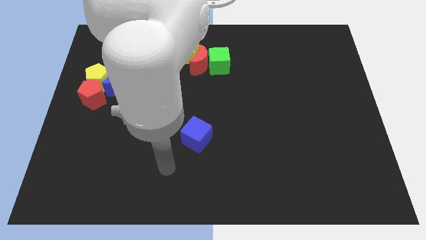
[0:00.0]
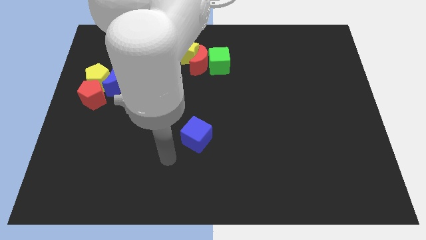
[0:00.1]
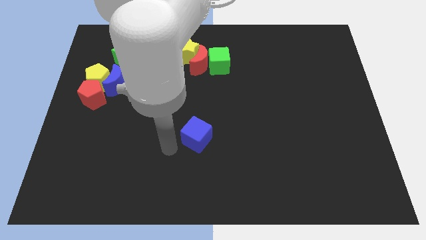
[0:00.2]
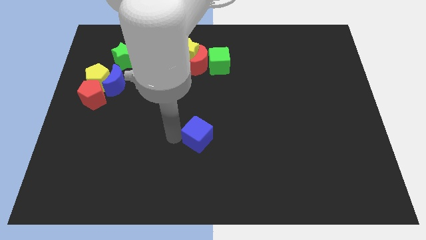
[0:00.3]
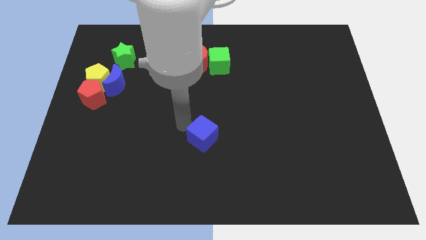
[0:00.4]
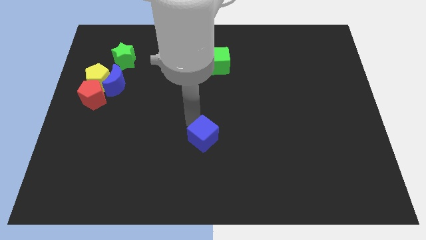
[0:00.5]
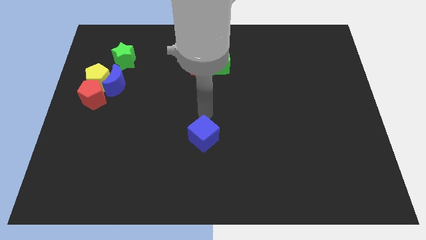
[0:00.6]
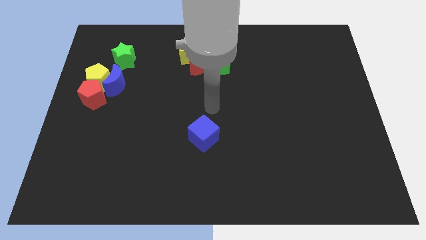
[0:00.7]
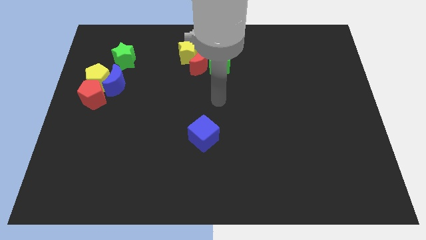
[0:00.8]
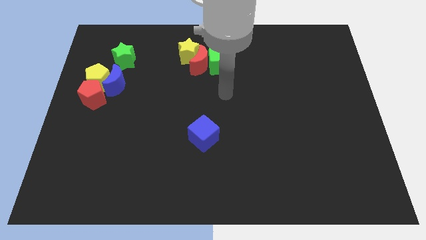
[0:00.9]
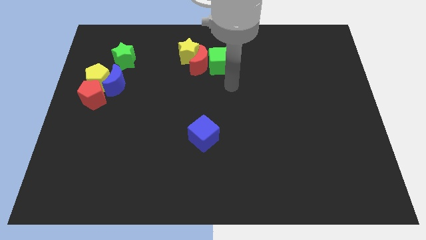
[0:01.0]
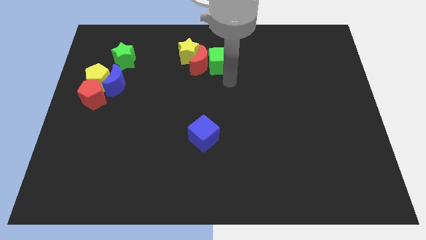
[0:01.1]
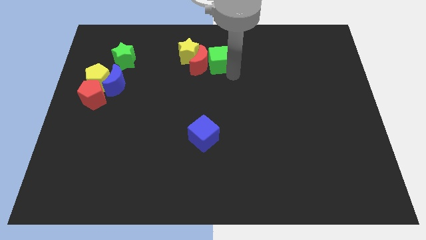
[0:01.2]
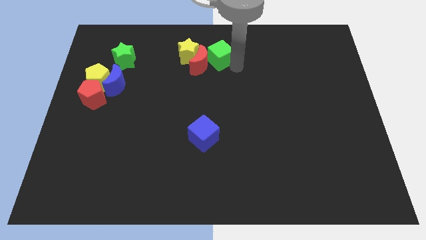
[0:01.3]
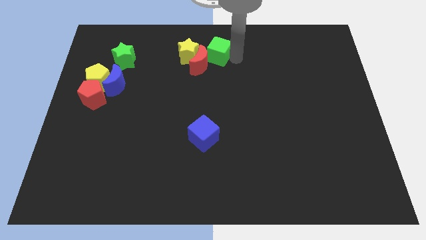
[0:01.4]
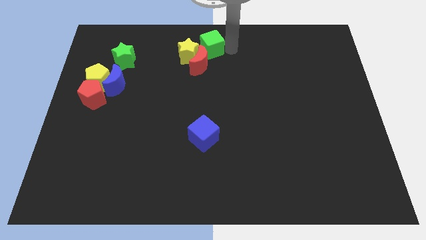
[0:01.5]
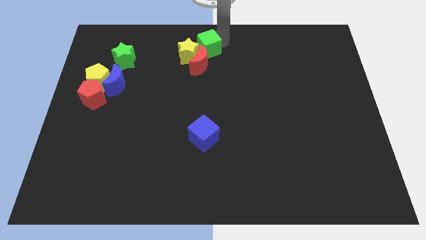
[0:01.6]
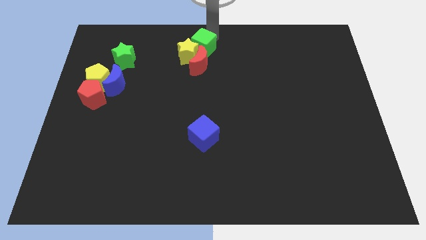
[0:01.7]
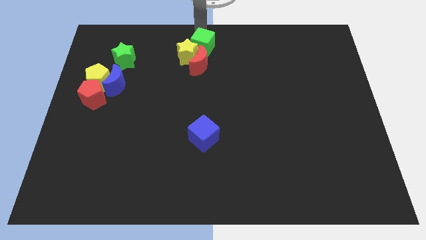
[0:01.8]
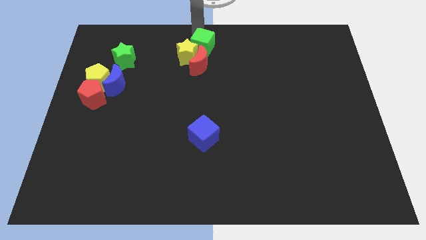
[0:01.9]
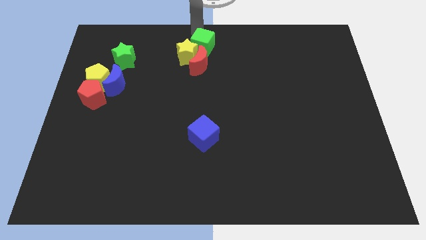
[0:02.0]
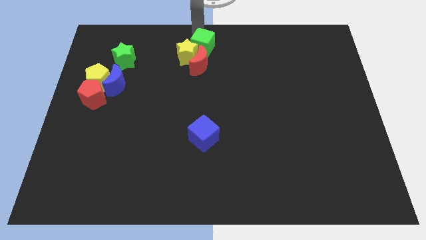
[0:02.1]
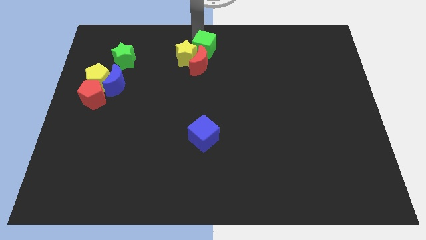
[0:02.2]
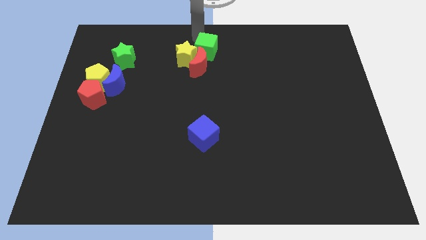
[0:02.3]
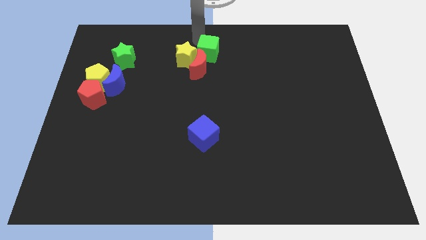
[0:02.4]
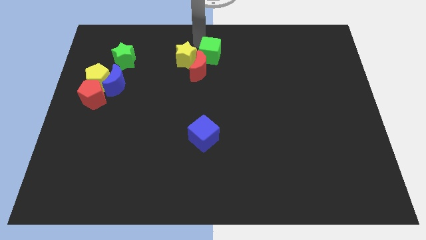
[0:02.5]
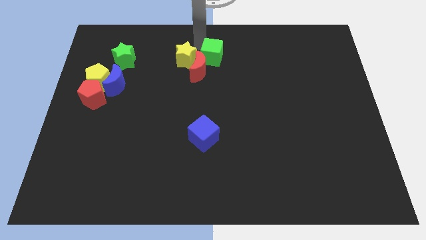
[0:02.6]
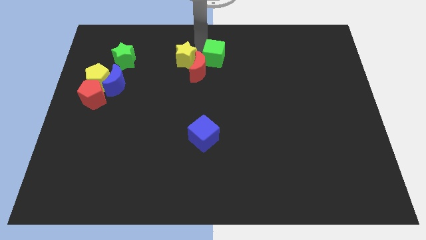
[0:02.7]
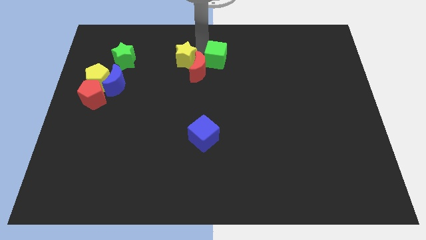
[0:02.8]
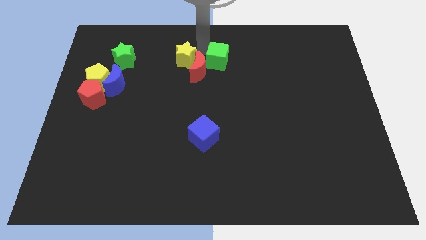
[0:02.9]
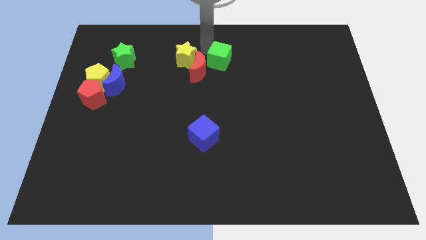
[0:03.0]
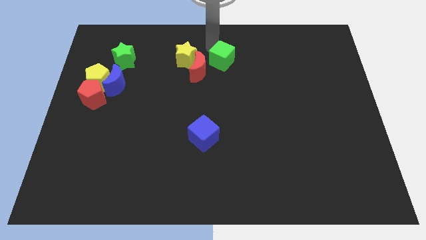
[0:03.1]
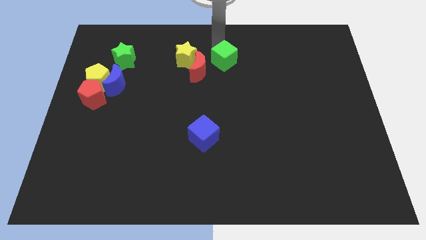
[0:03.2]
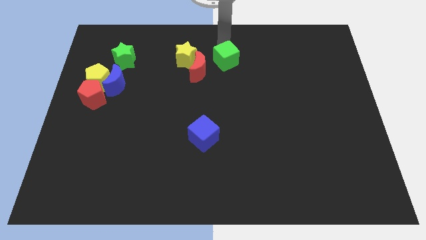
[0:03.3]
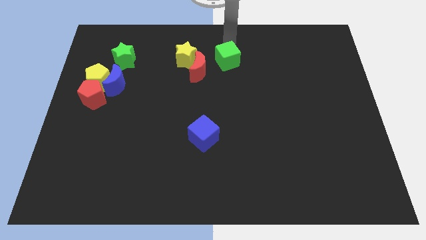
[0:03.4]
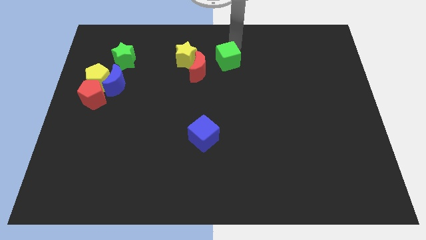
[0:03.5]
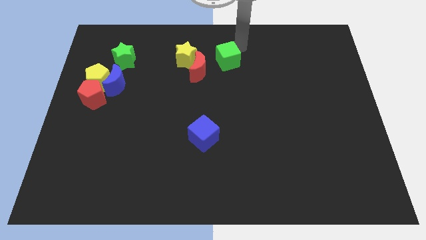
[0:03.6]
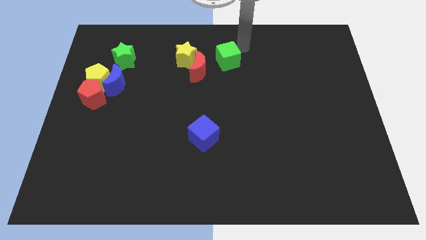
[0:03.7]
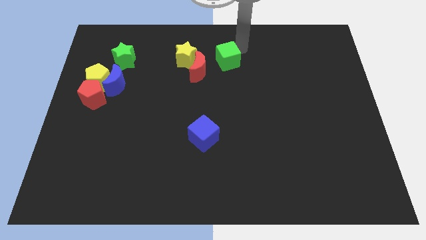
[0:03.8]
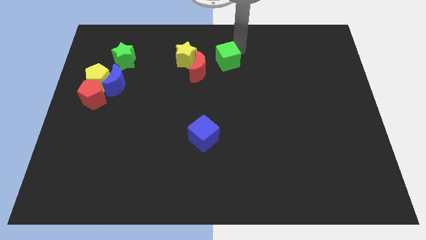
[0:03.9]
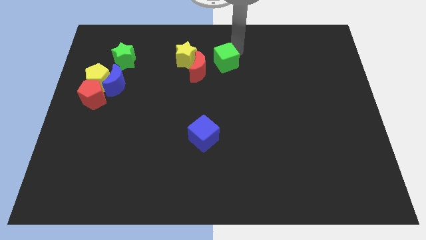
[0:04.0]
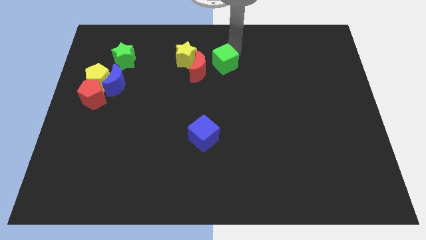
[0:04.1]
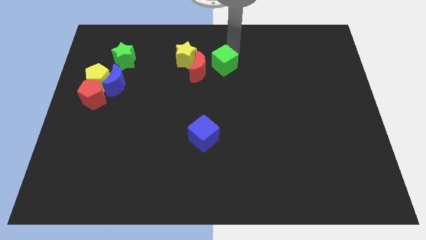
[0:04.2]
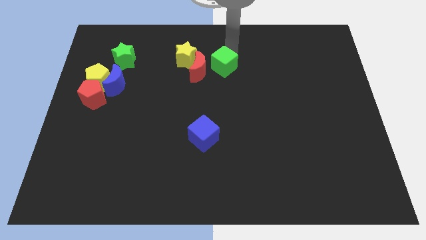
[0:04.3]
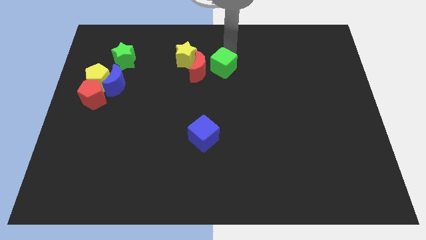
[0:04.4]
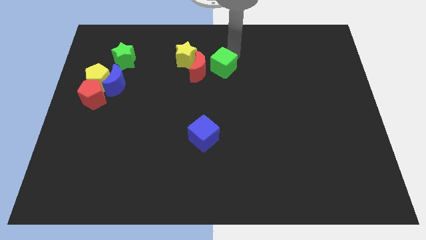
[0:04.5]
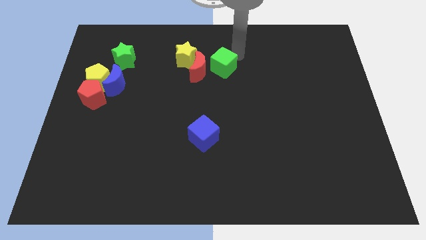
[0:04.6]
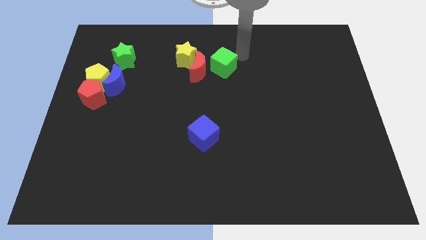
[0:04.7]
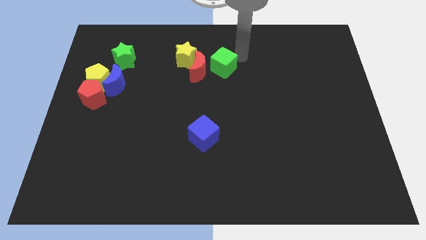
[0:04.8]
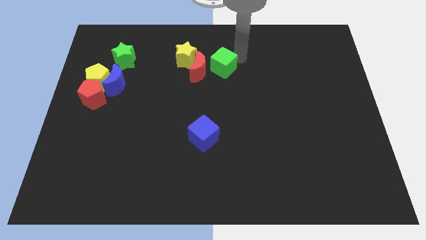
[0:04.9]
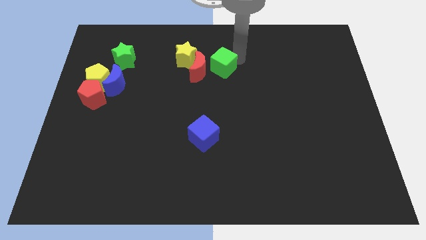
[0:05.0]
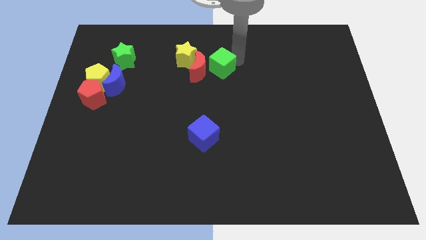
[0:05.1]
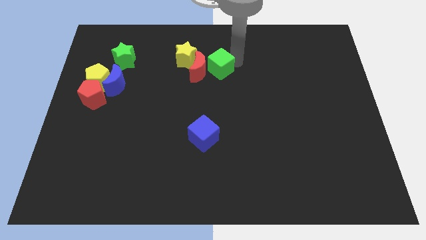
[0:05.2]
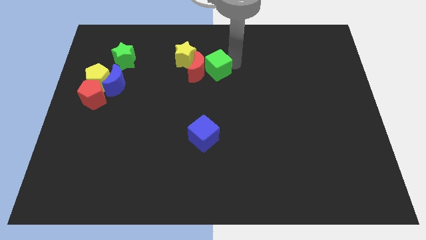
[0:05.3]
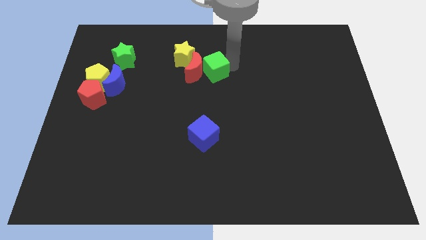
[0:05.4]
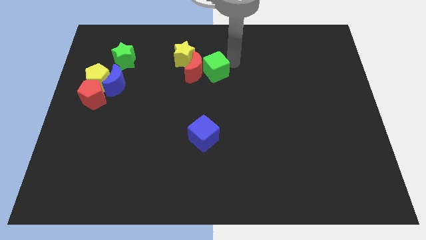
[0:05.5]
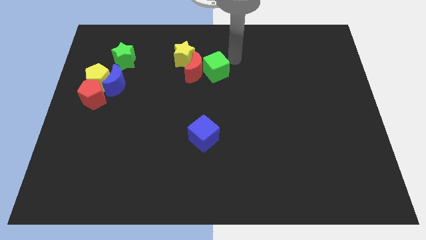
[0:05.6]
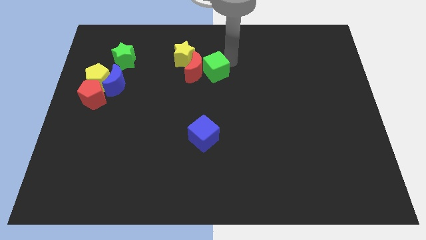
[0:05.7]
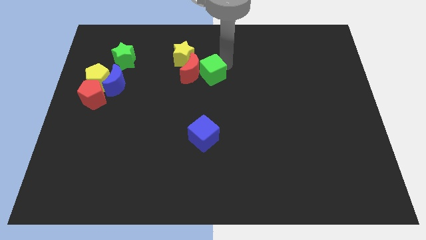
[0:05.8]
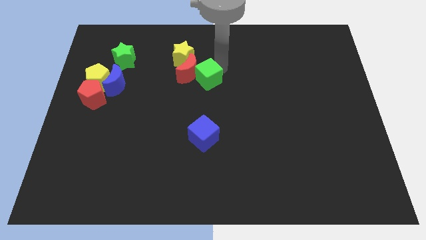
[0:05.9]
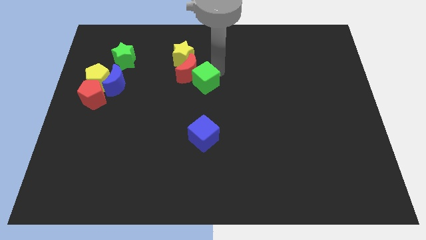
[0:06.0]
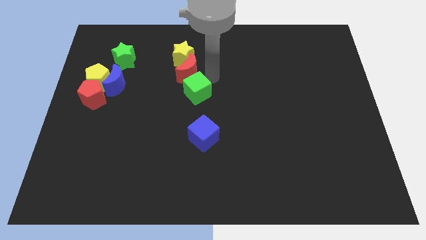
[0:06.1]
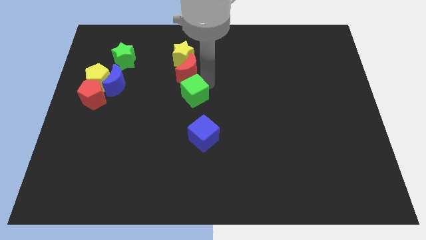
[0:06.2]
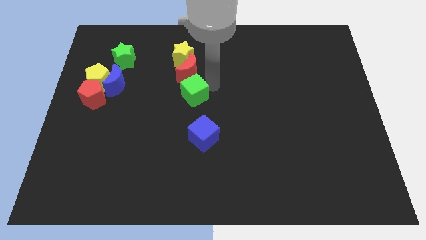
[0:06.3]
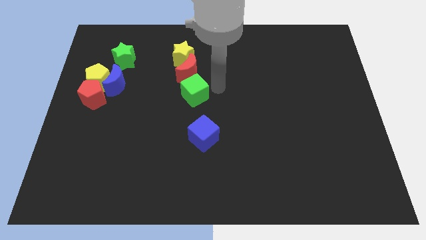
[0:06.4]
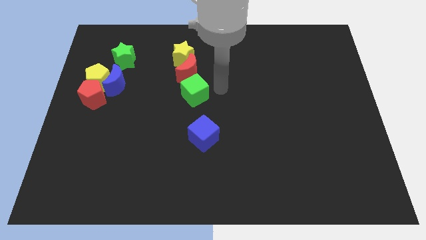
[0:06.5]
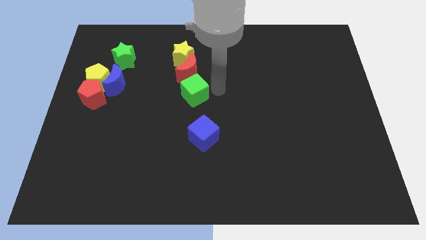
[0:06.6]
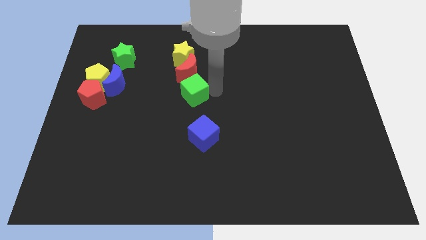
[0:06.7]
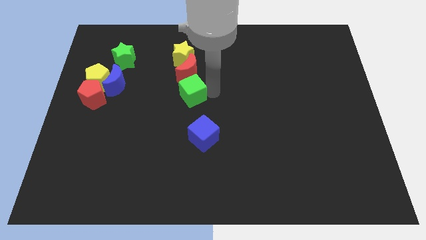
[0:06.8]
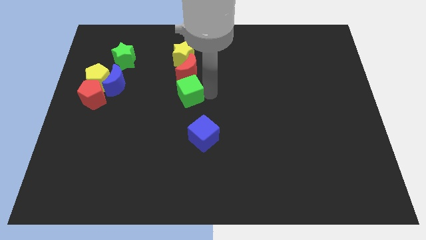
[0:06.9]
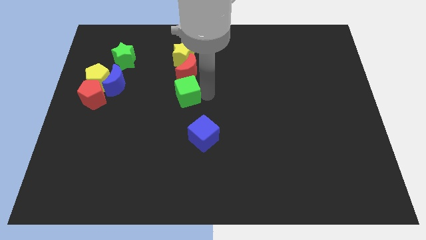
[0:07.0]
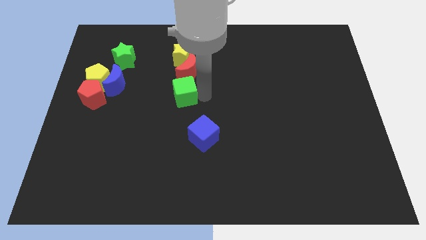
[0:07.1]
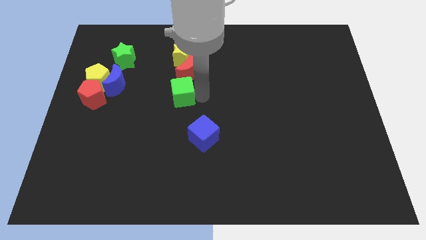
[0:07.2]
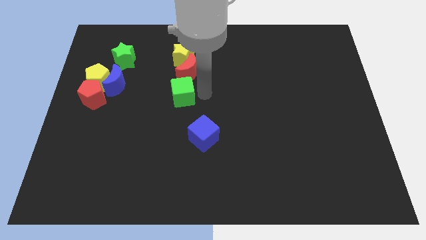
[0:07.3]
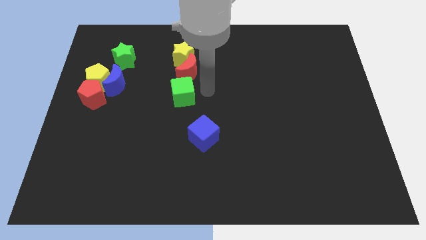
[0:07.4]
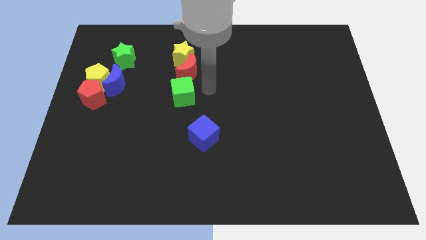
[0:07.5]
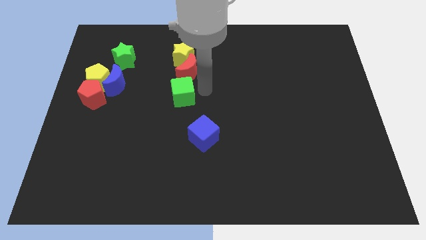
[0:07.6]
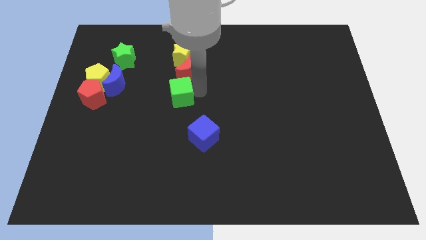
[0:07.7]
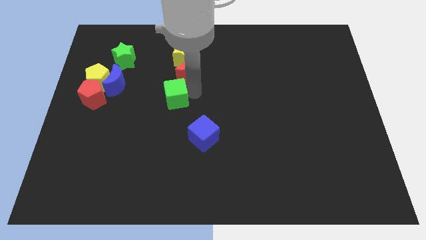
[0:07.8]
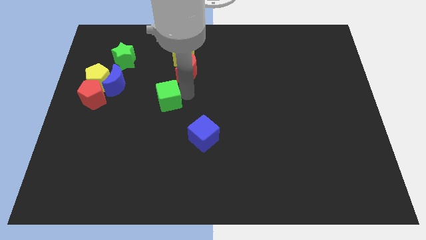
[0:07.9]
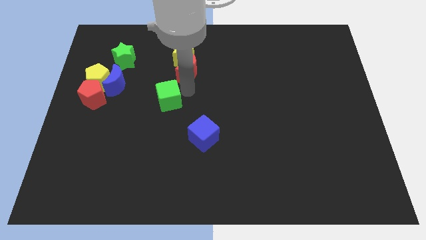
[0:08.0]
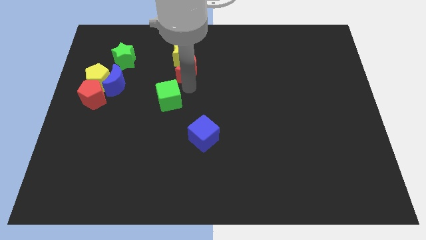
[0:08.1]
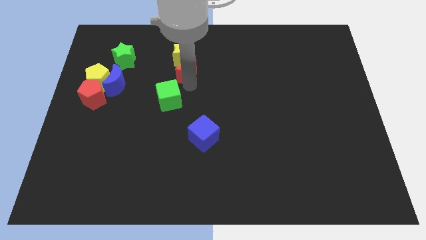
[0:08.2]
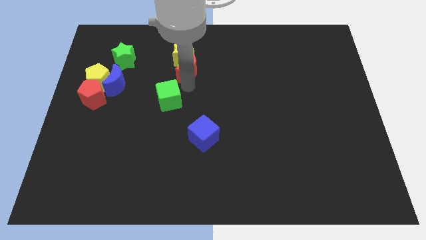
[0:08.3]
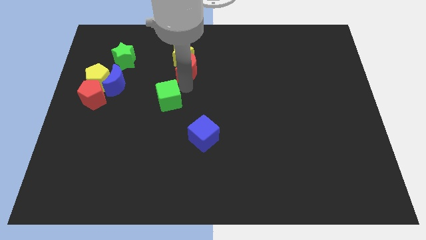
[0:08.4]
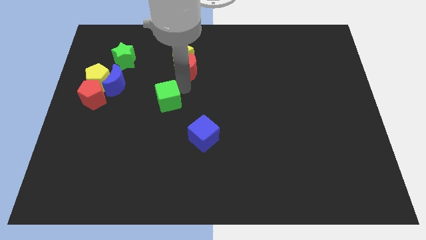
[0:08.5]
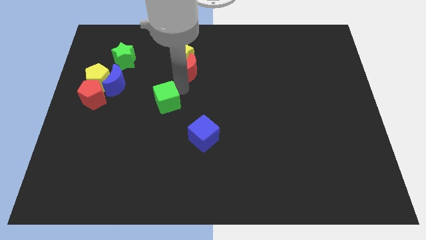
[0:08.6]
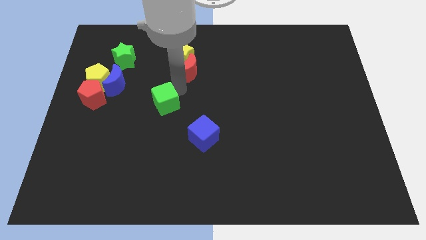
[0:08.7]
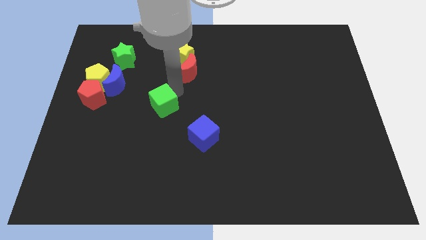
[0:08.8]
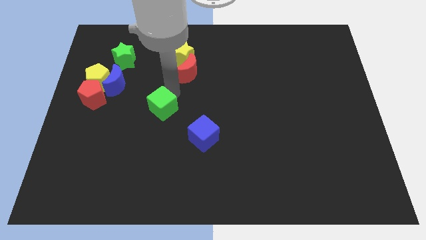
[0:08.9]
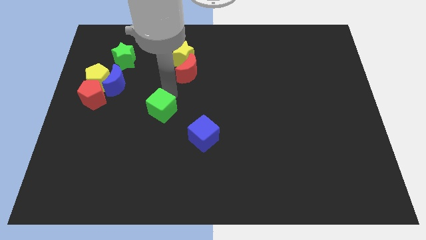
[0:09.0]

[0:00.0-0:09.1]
slide the green cube diagonally downwards and to the left
